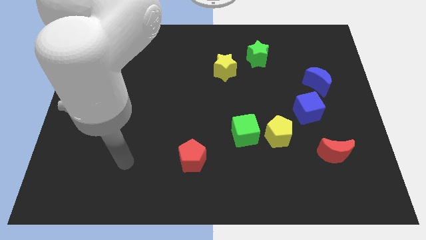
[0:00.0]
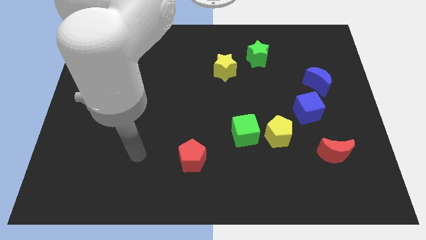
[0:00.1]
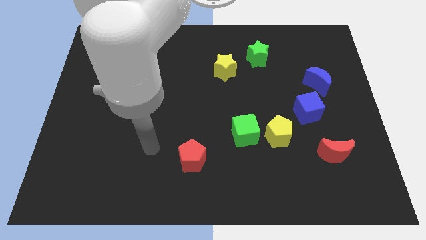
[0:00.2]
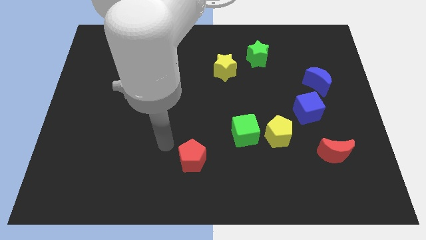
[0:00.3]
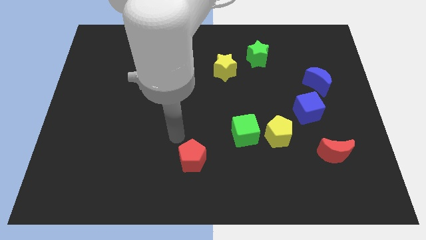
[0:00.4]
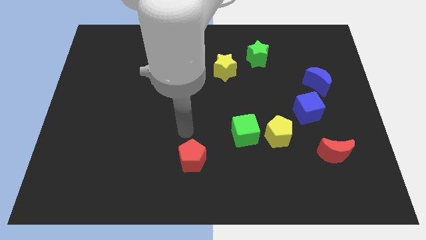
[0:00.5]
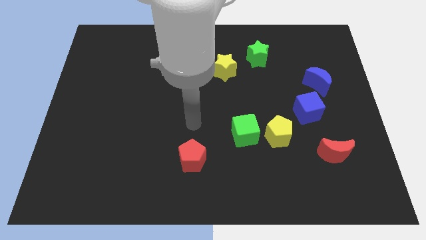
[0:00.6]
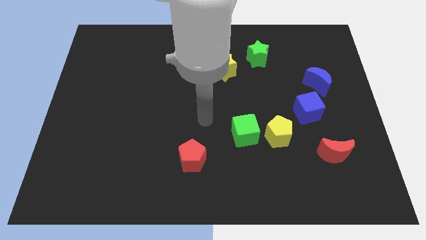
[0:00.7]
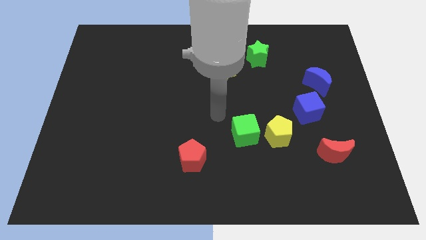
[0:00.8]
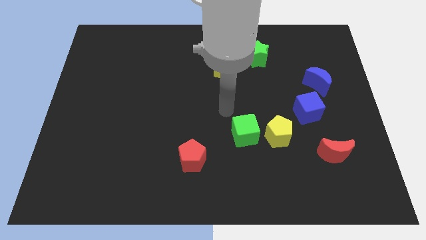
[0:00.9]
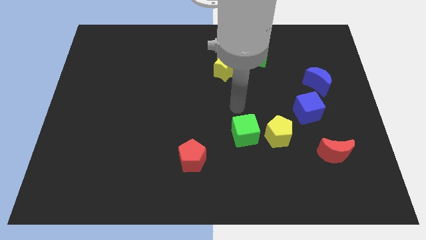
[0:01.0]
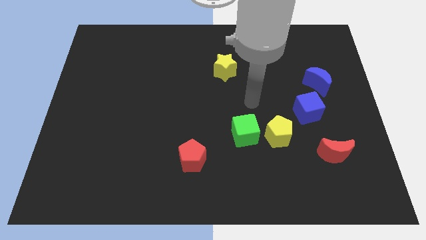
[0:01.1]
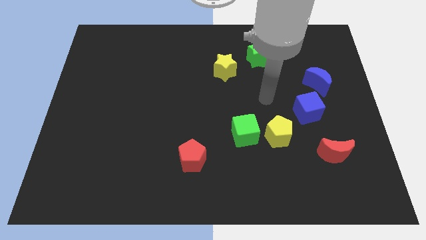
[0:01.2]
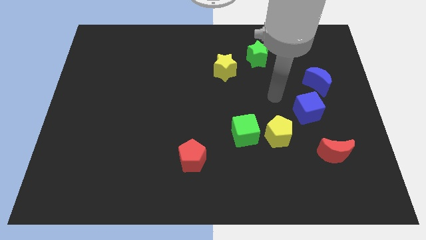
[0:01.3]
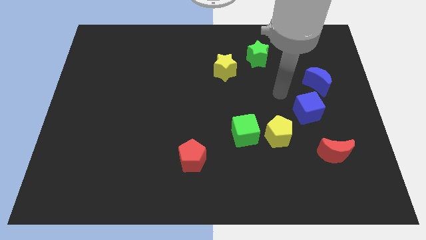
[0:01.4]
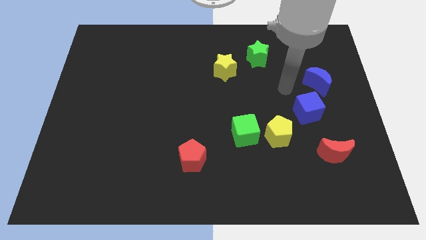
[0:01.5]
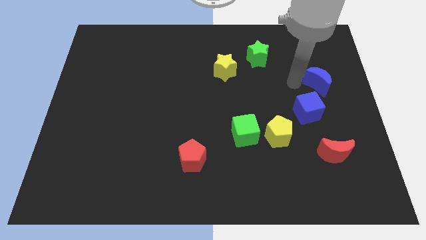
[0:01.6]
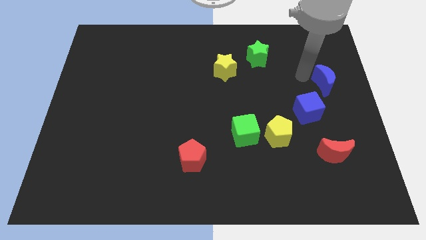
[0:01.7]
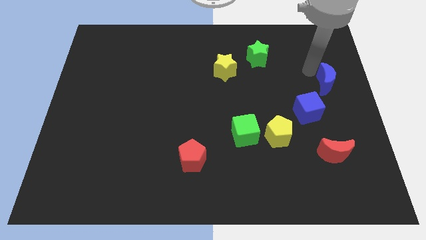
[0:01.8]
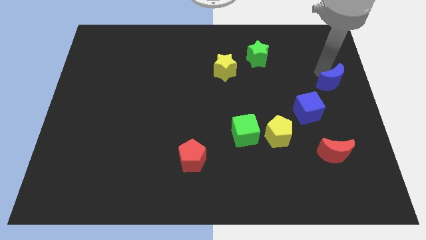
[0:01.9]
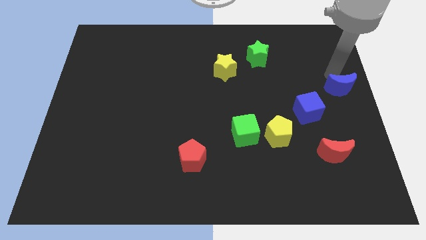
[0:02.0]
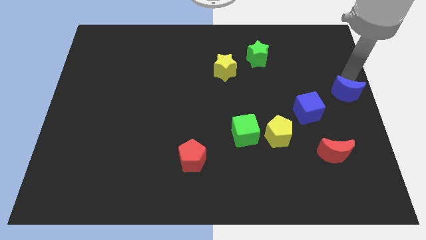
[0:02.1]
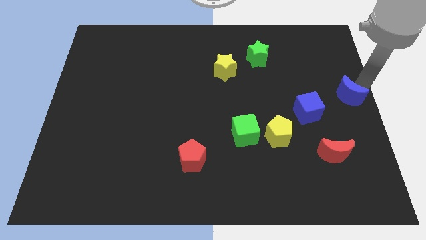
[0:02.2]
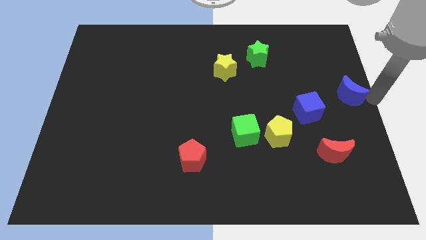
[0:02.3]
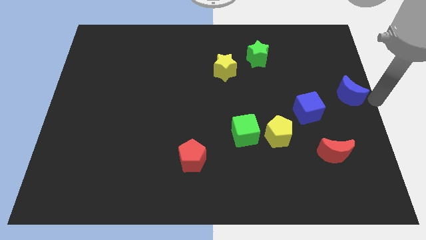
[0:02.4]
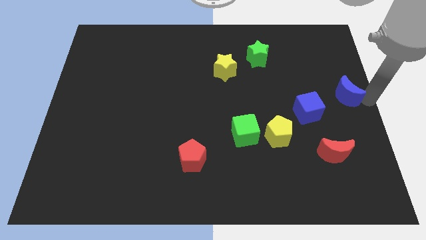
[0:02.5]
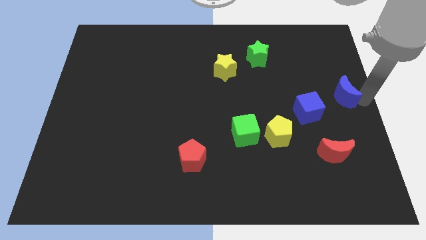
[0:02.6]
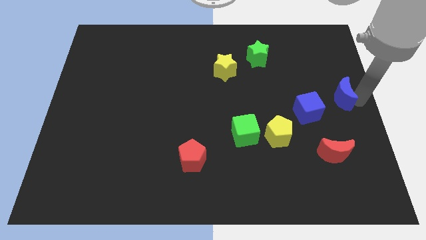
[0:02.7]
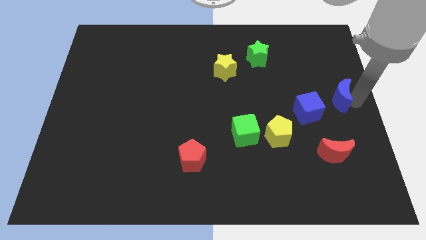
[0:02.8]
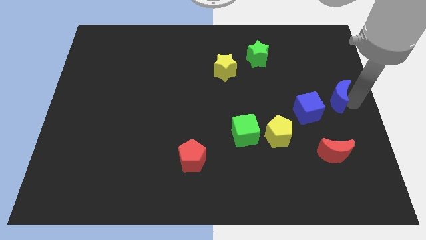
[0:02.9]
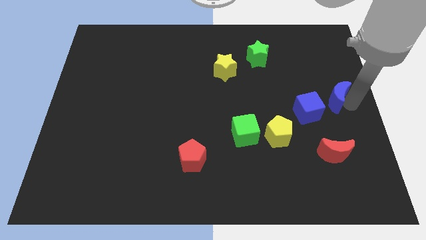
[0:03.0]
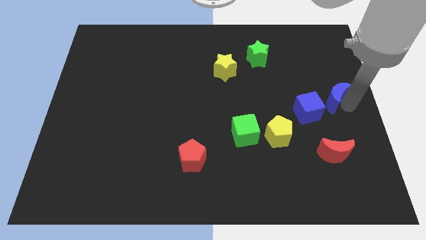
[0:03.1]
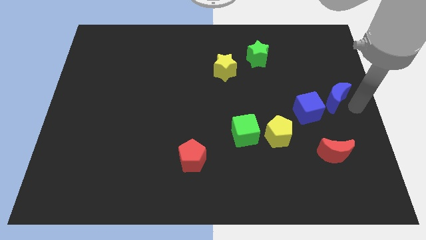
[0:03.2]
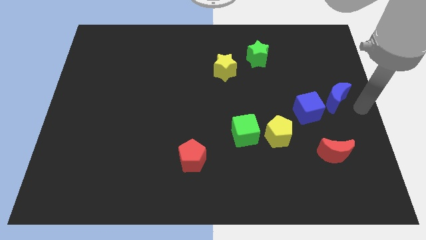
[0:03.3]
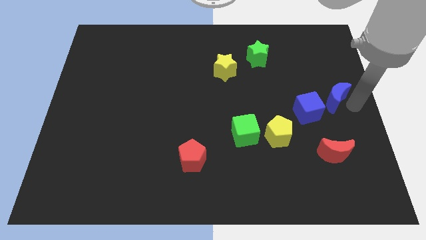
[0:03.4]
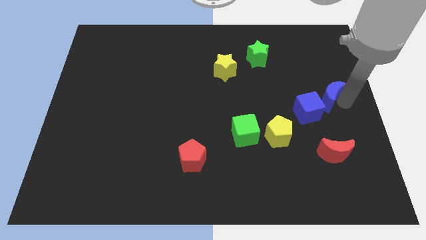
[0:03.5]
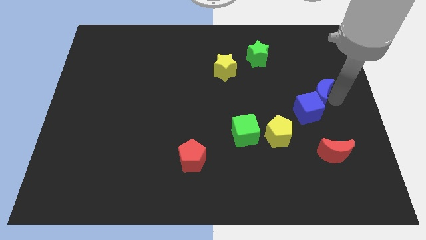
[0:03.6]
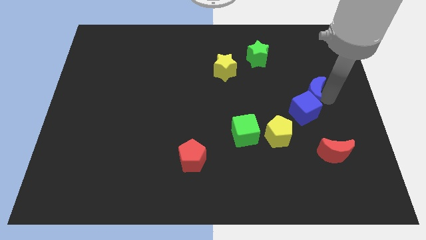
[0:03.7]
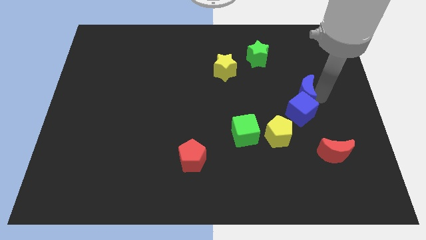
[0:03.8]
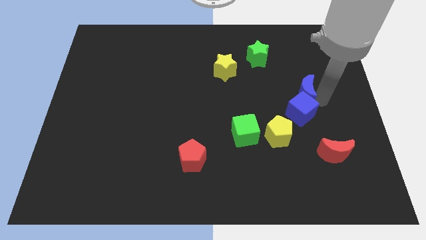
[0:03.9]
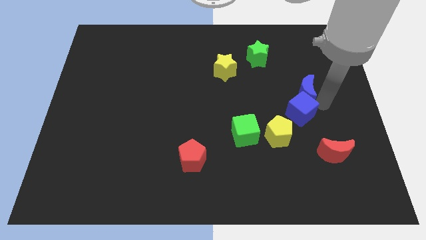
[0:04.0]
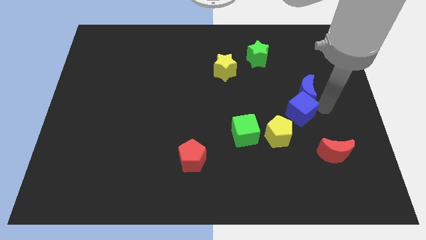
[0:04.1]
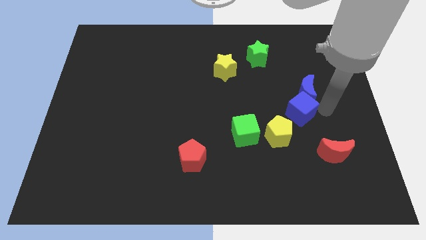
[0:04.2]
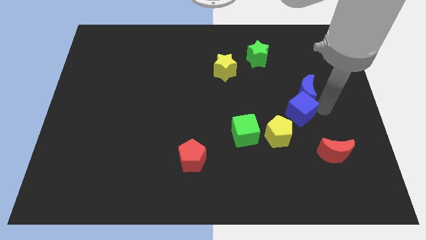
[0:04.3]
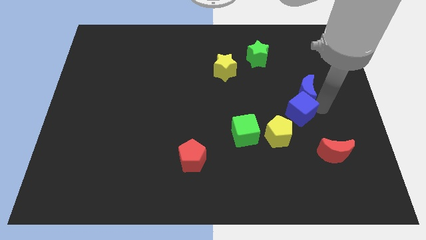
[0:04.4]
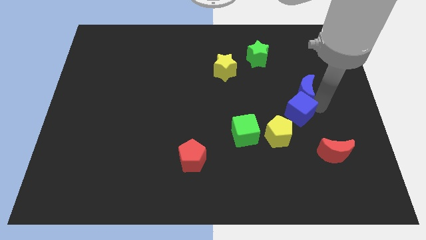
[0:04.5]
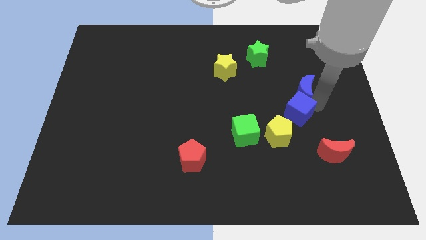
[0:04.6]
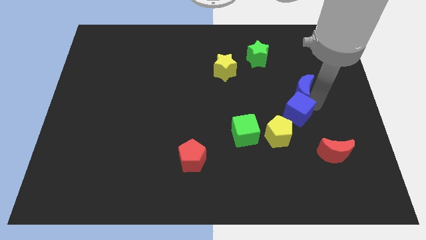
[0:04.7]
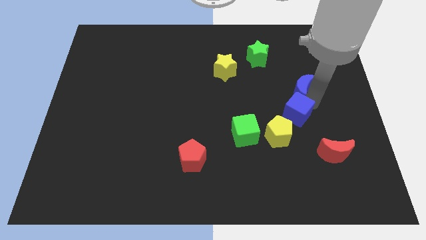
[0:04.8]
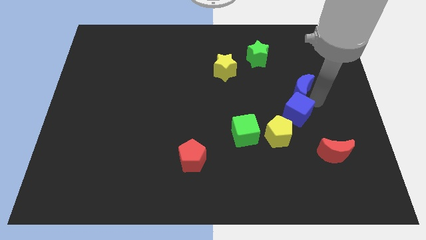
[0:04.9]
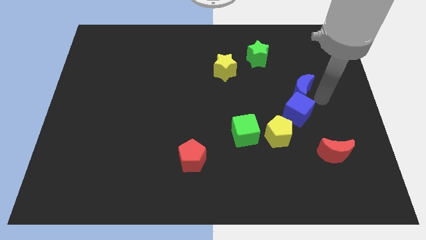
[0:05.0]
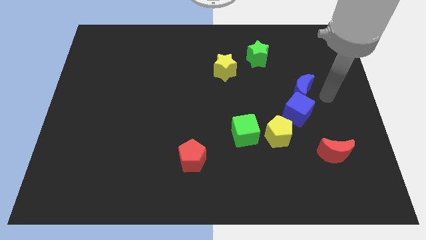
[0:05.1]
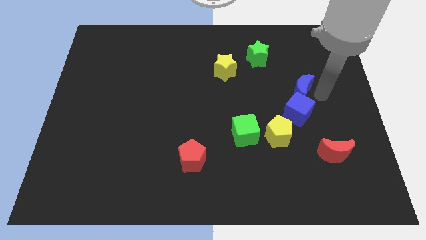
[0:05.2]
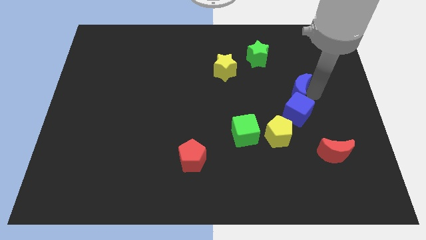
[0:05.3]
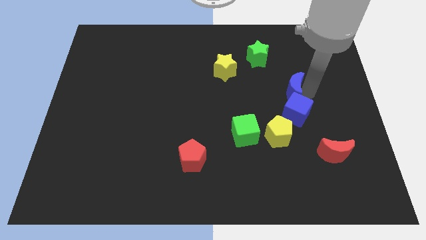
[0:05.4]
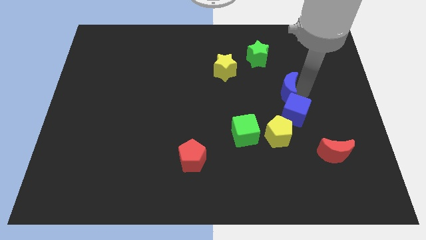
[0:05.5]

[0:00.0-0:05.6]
slightly push the blue moon to the left

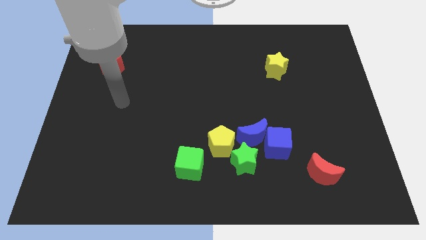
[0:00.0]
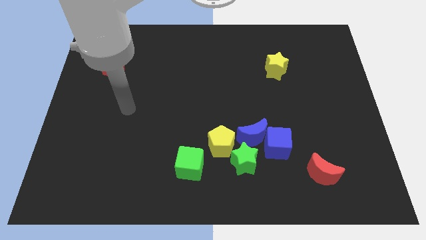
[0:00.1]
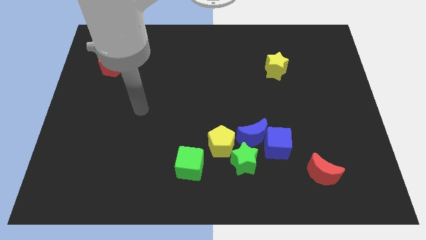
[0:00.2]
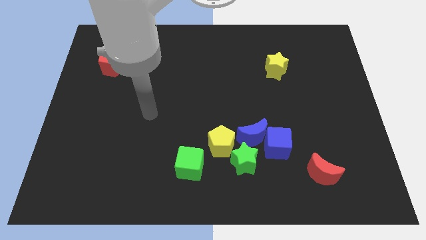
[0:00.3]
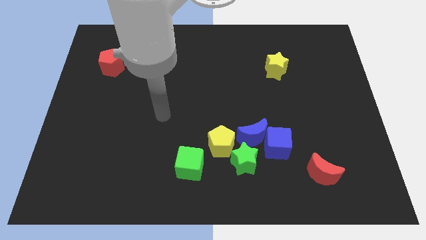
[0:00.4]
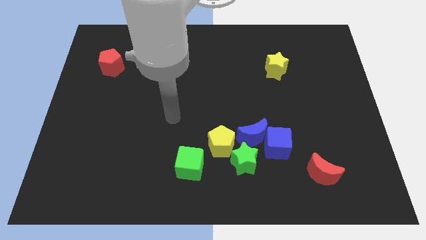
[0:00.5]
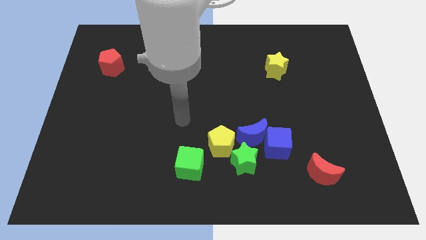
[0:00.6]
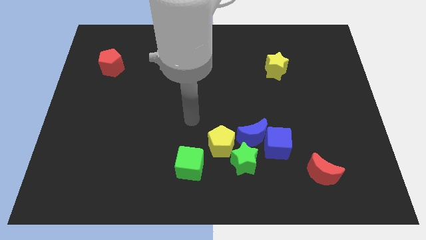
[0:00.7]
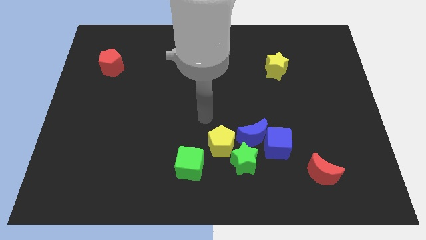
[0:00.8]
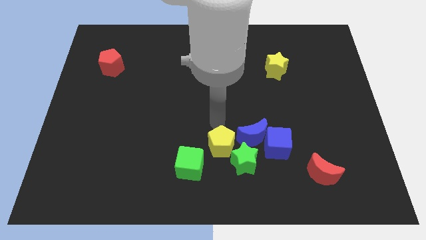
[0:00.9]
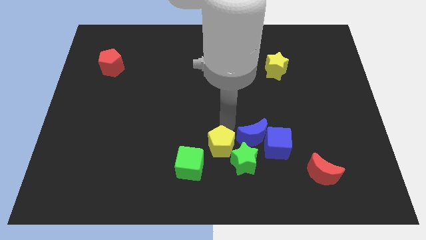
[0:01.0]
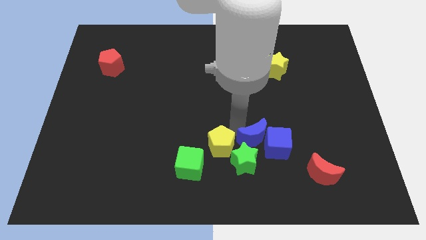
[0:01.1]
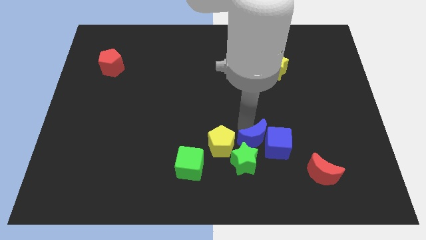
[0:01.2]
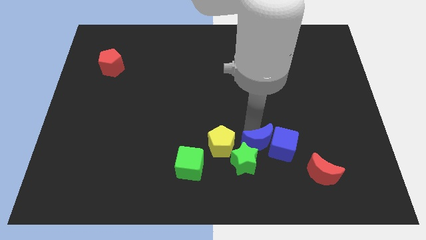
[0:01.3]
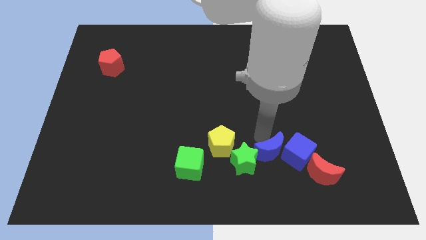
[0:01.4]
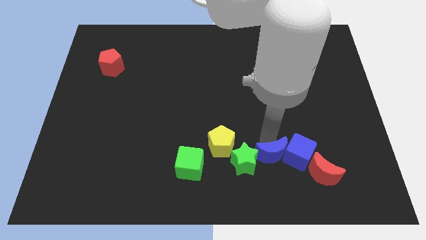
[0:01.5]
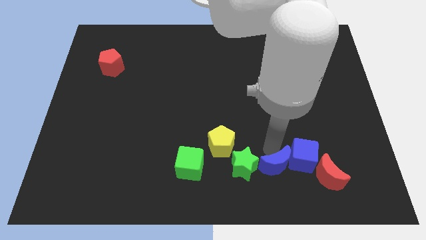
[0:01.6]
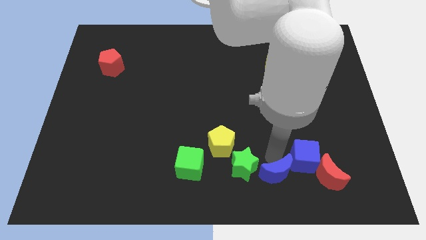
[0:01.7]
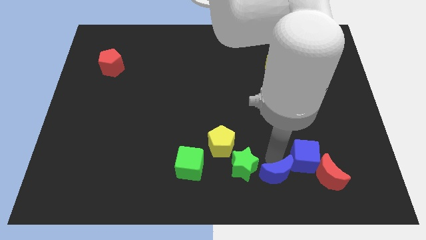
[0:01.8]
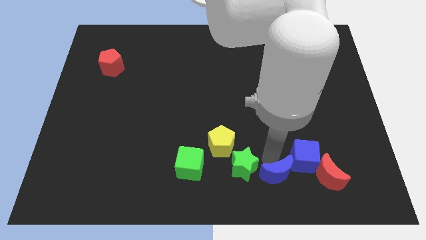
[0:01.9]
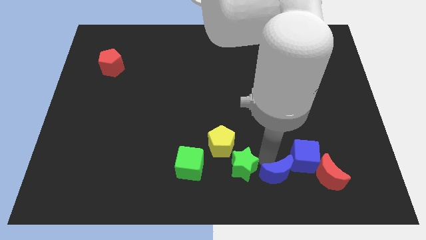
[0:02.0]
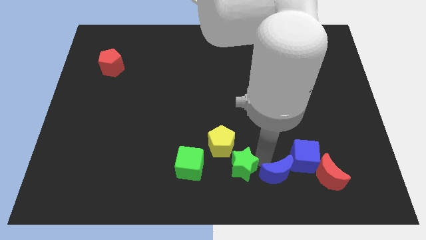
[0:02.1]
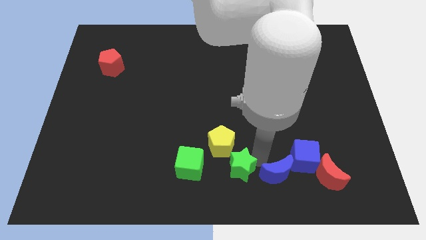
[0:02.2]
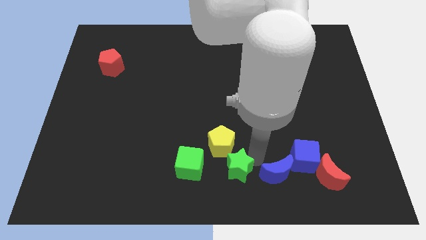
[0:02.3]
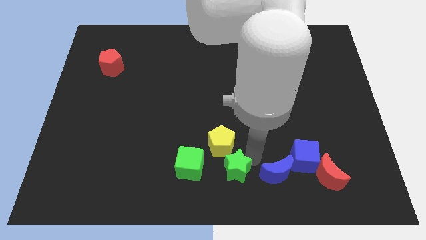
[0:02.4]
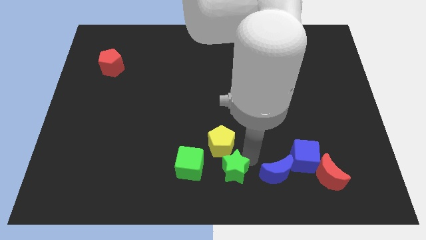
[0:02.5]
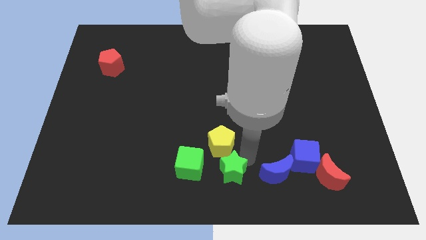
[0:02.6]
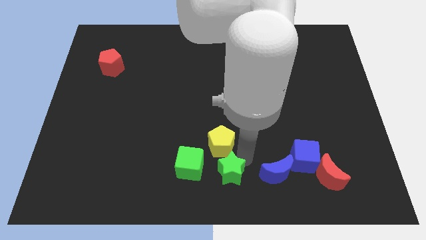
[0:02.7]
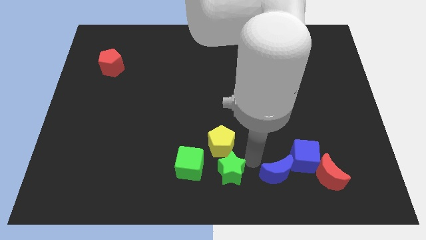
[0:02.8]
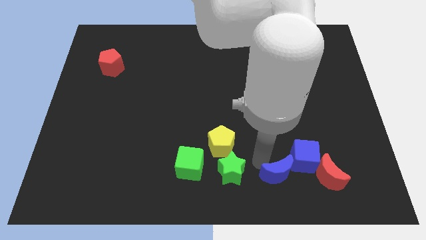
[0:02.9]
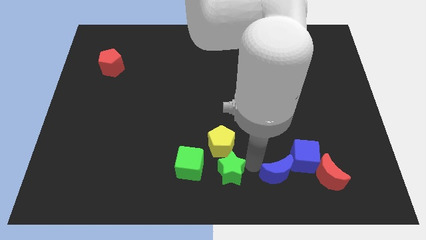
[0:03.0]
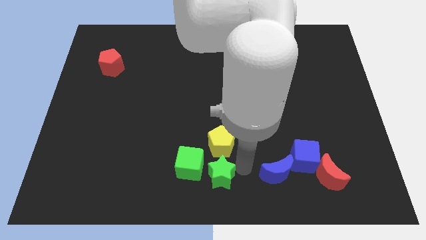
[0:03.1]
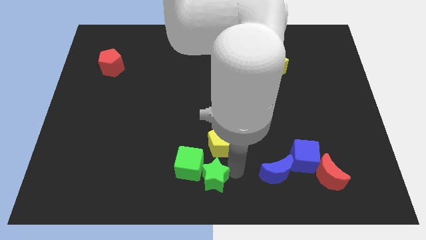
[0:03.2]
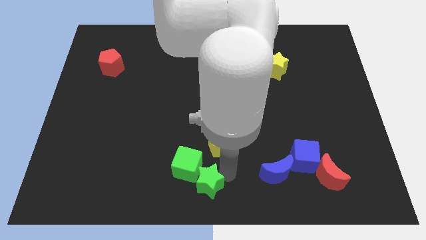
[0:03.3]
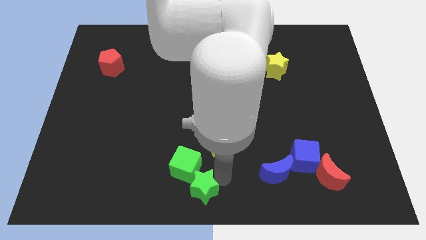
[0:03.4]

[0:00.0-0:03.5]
slide the green star left slightly
